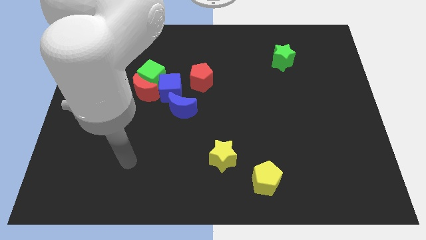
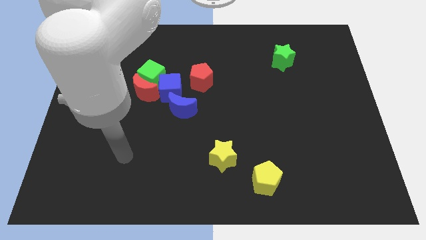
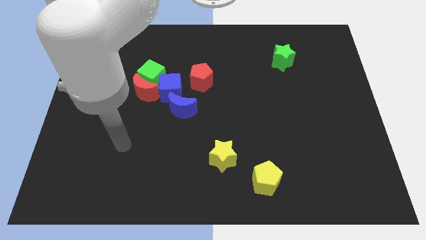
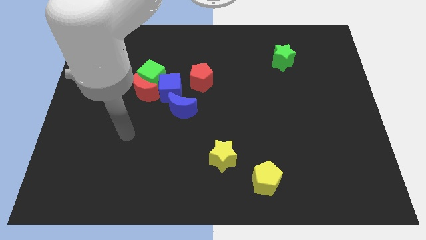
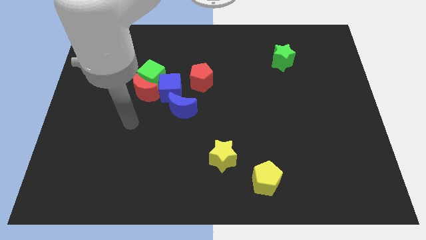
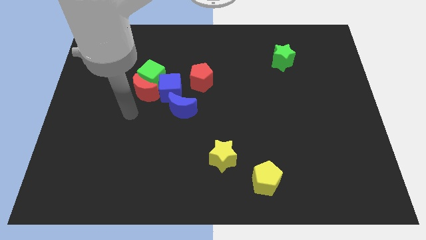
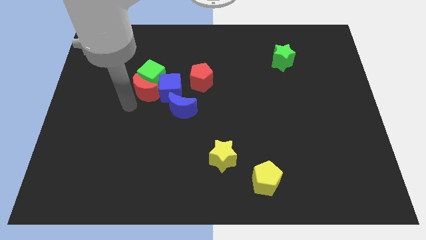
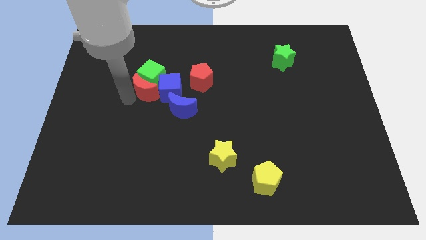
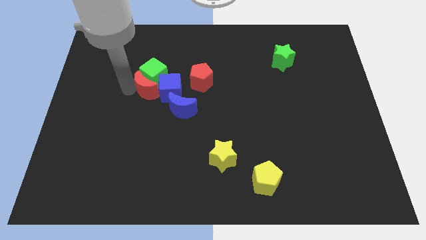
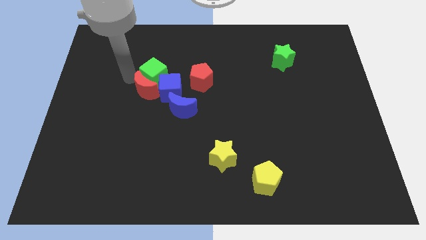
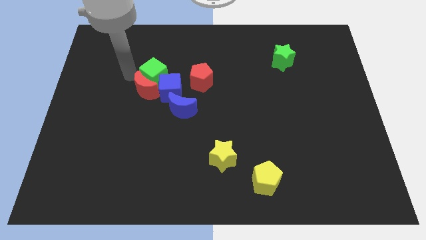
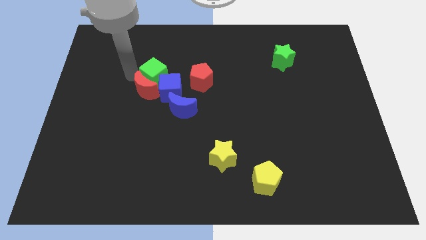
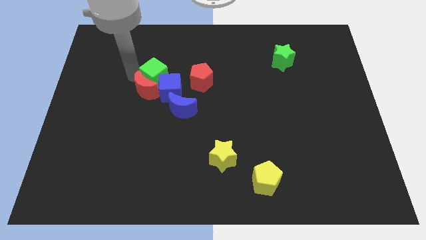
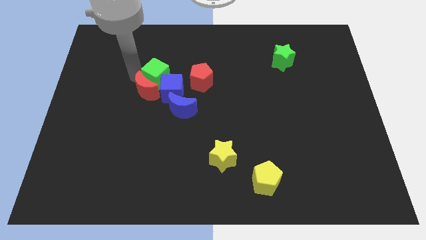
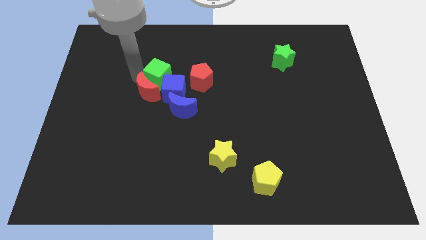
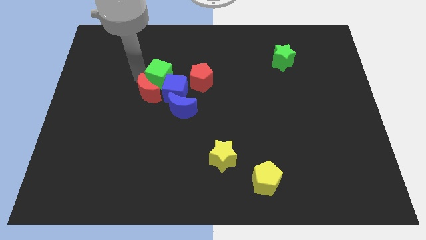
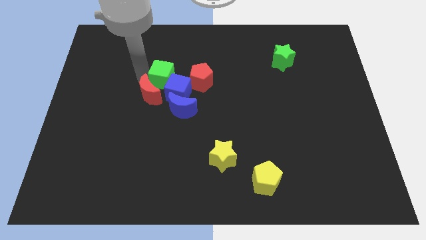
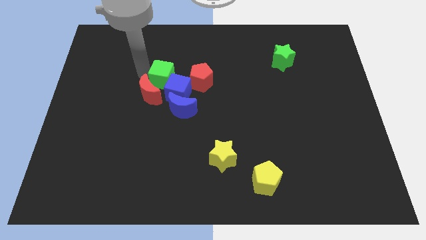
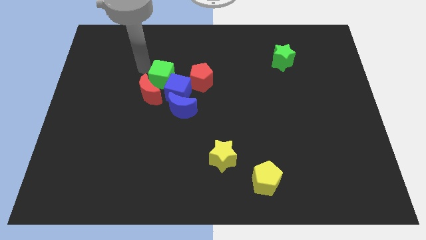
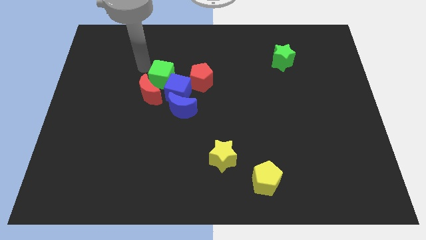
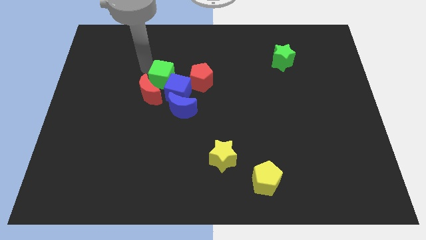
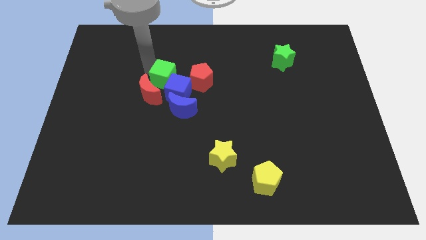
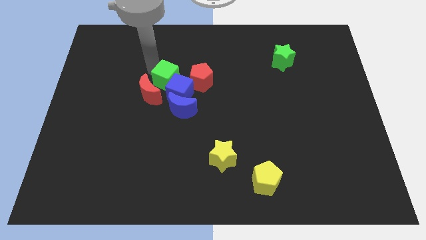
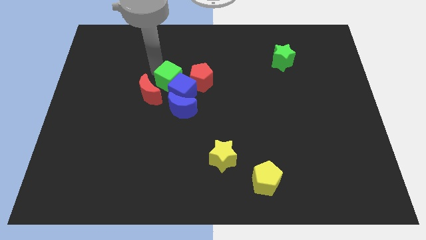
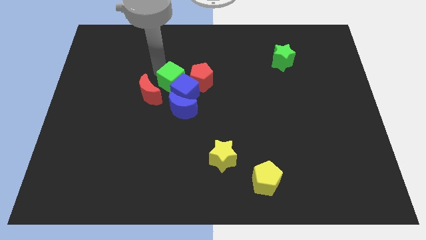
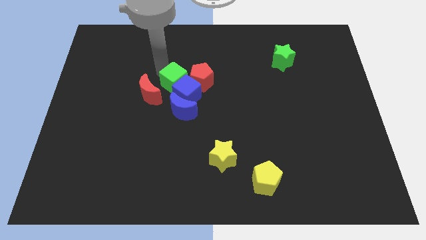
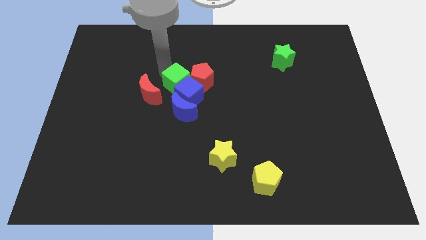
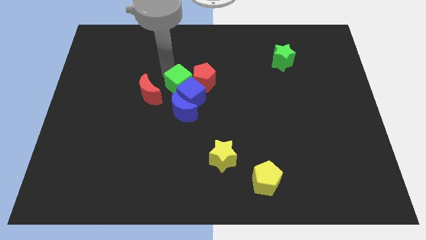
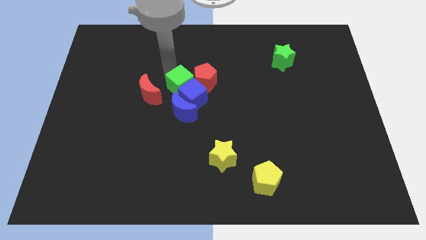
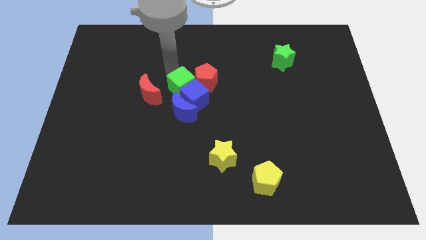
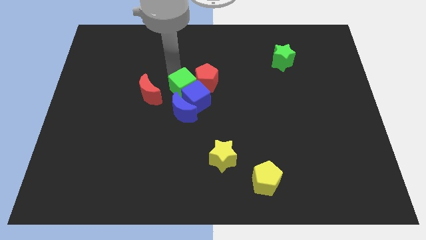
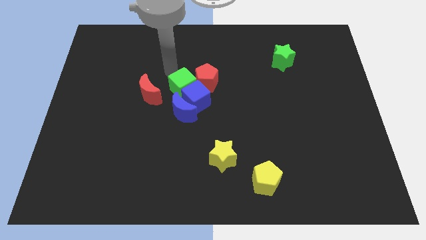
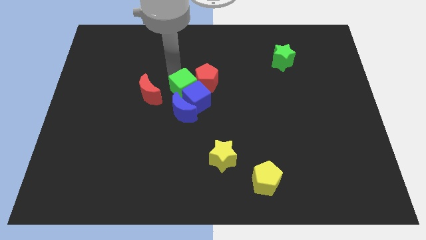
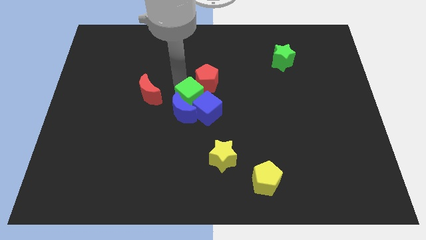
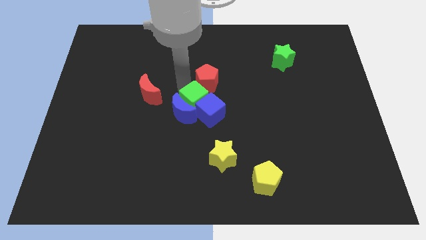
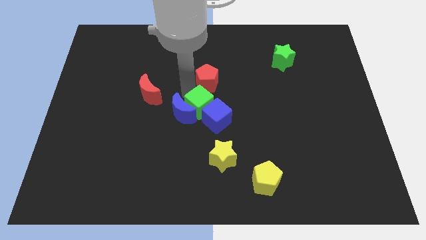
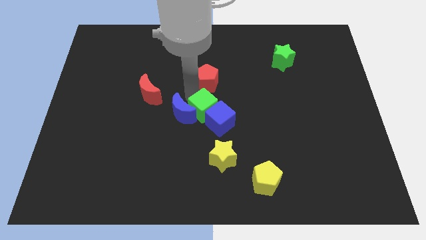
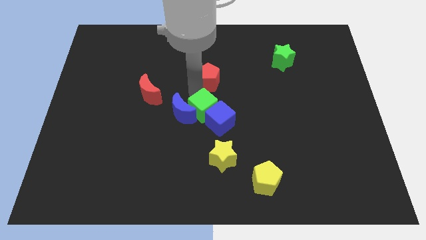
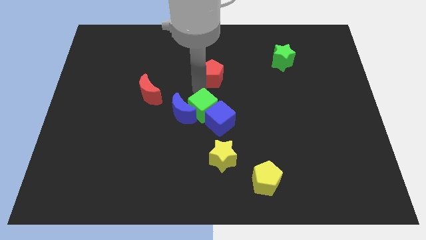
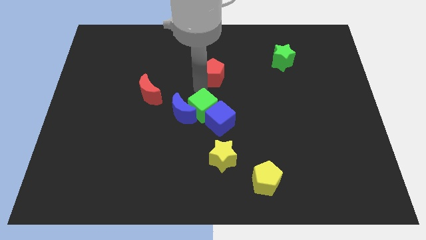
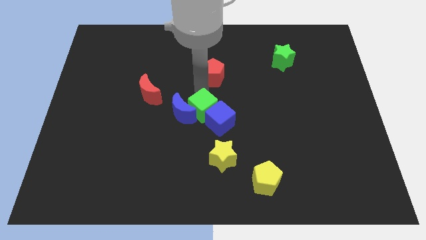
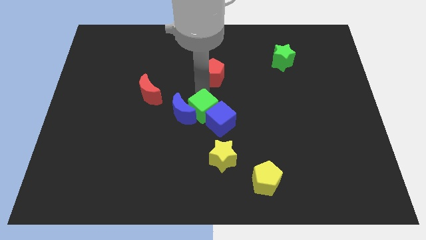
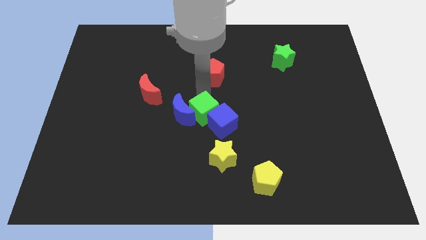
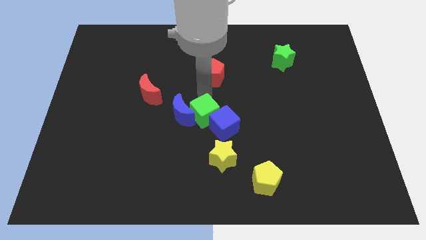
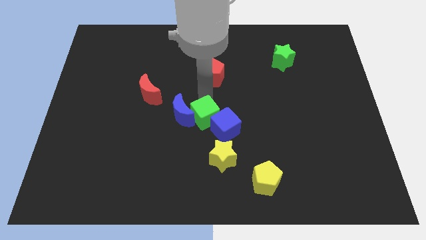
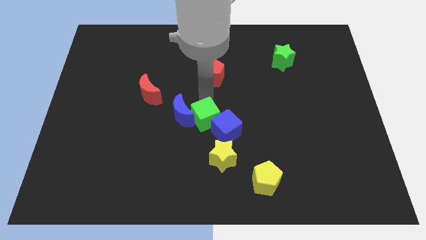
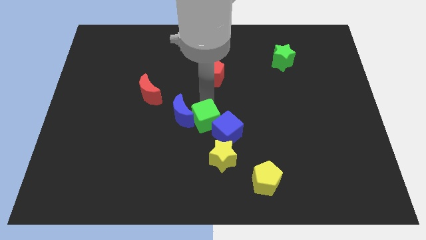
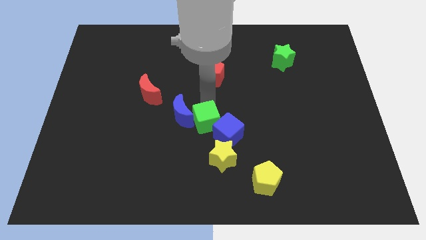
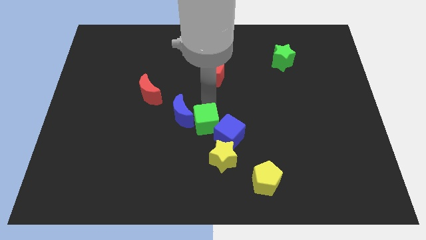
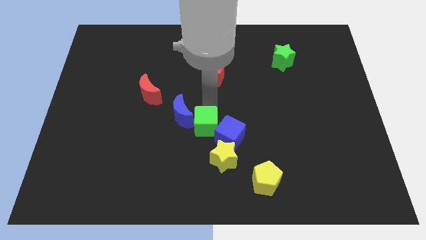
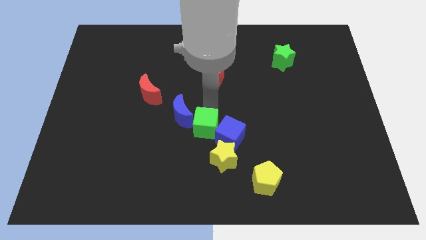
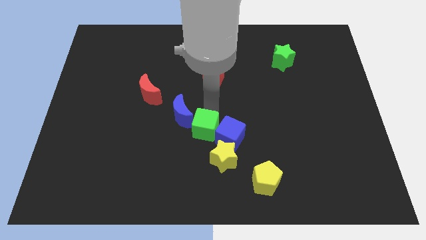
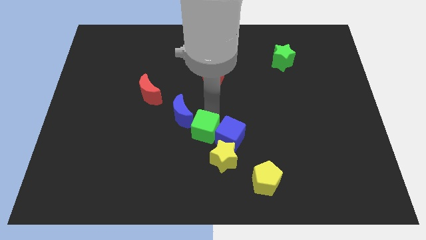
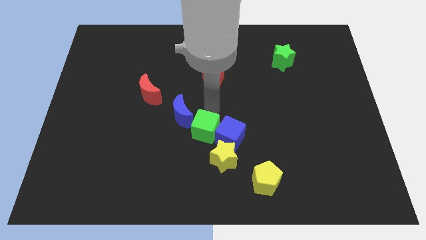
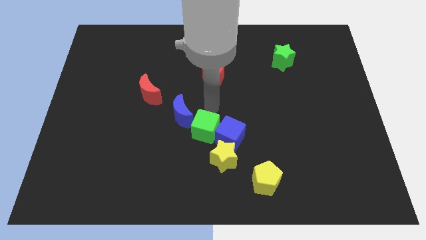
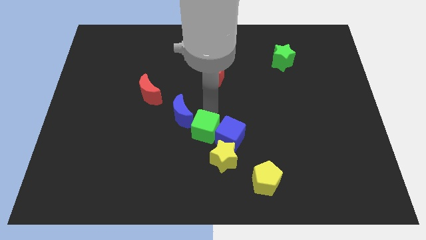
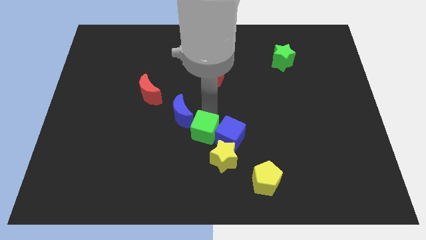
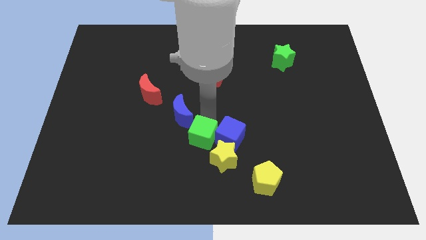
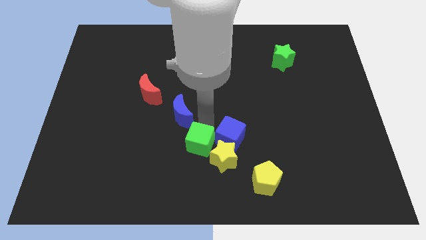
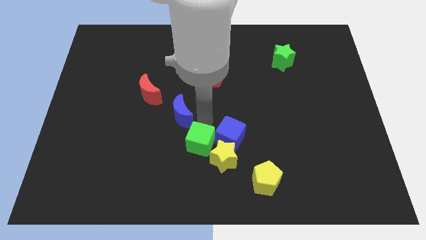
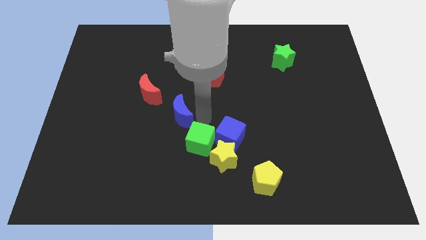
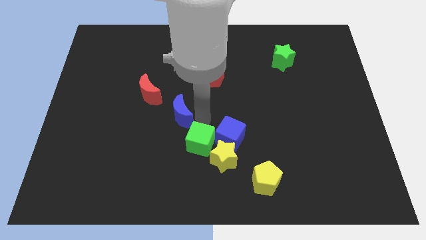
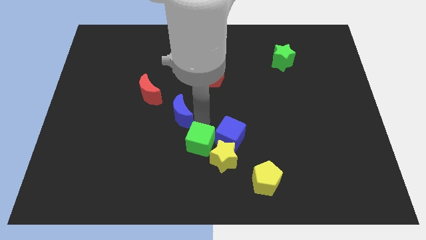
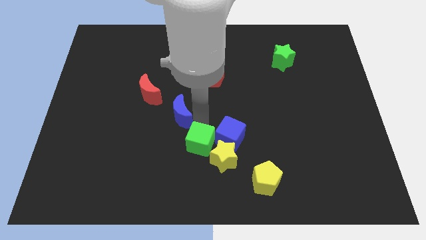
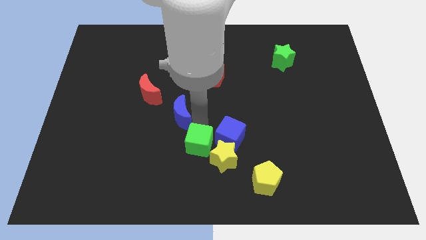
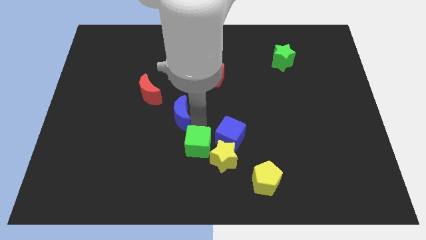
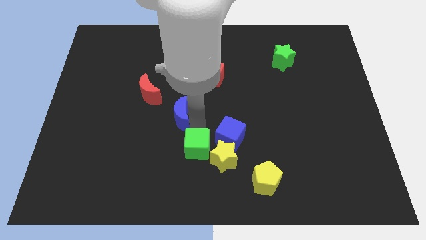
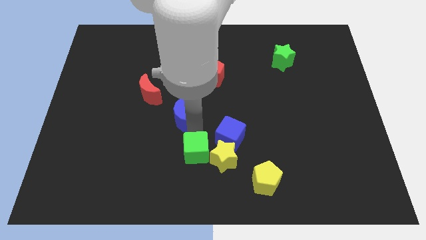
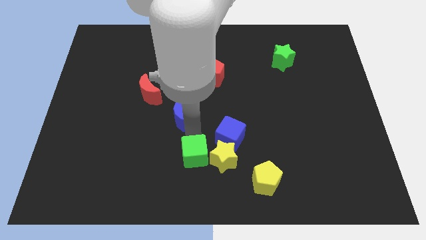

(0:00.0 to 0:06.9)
slide the green cube to the bottom
